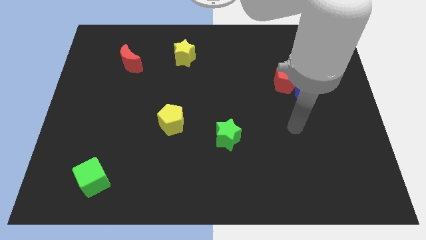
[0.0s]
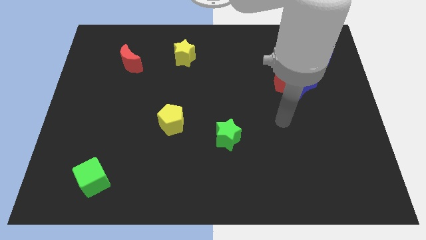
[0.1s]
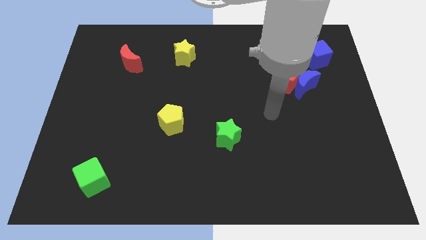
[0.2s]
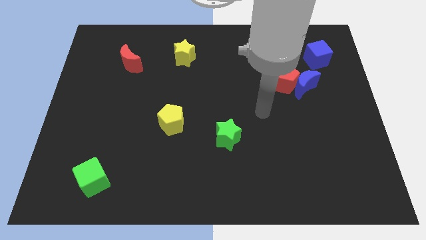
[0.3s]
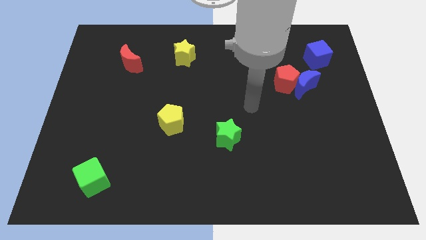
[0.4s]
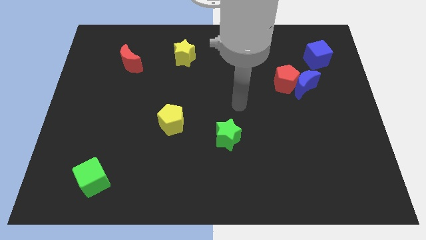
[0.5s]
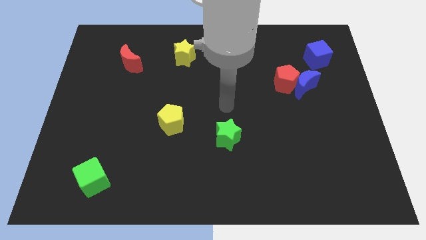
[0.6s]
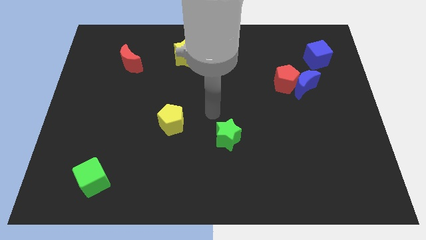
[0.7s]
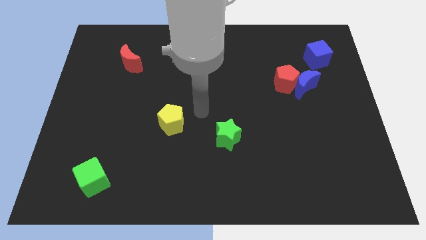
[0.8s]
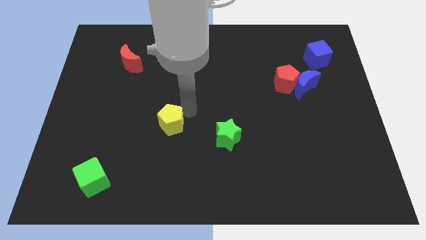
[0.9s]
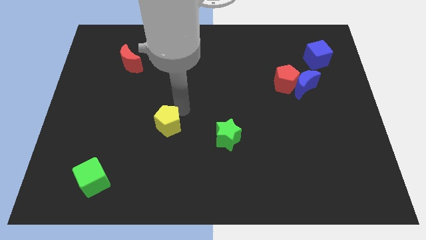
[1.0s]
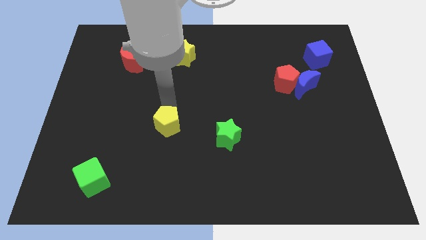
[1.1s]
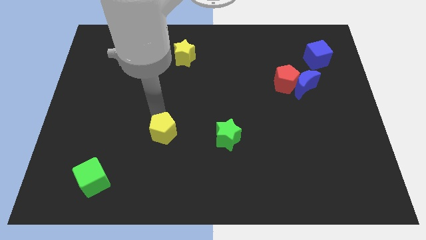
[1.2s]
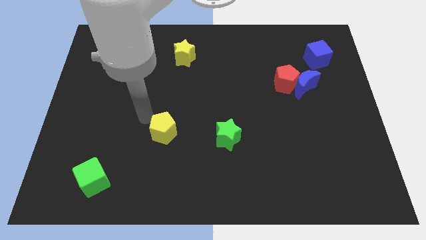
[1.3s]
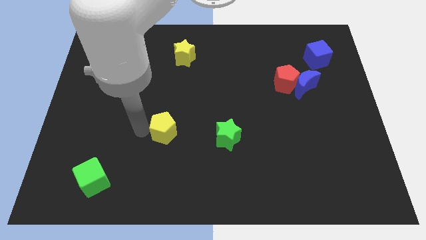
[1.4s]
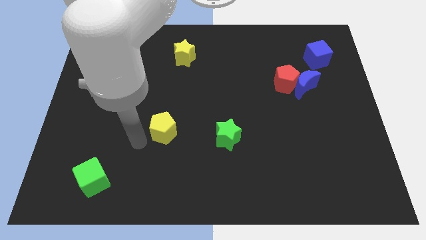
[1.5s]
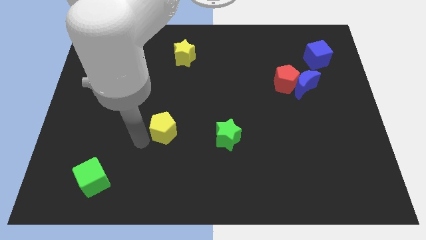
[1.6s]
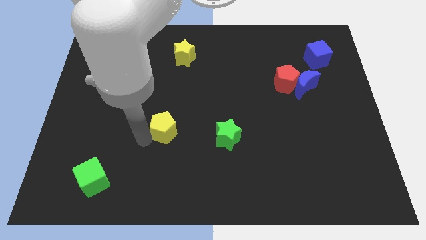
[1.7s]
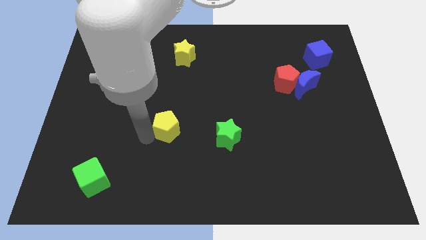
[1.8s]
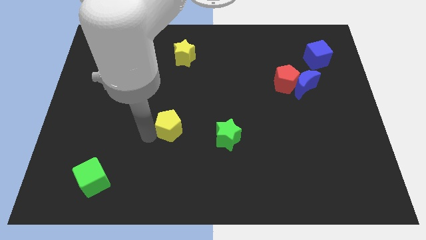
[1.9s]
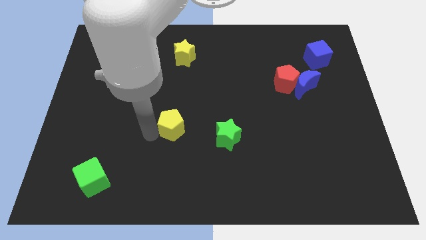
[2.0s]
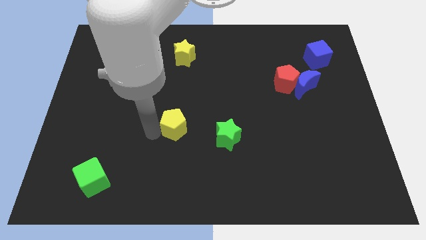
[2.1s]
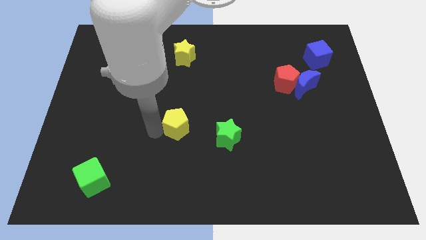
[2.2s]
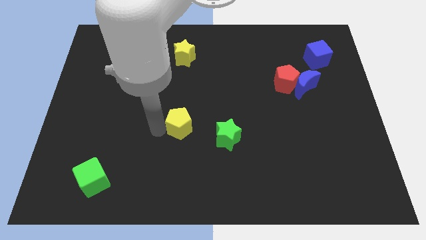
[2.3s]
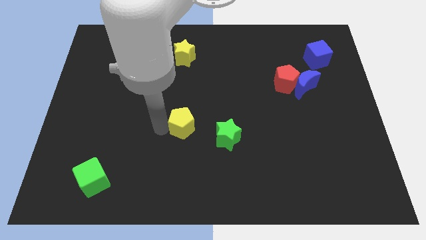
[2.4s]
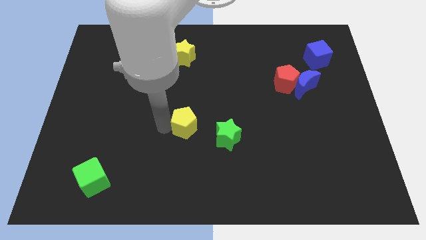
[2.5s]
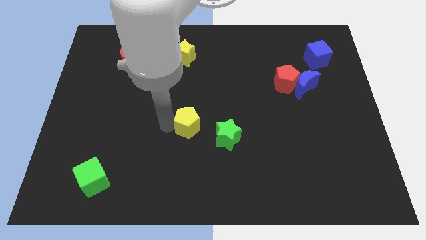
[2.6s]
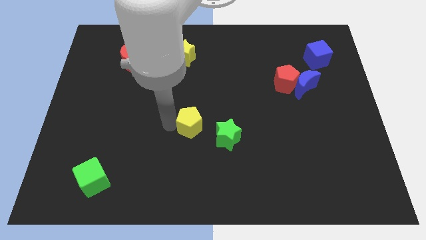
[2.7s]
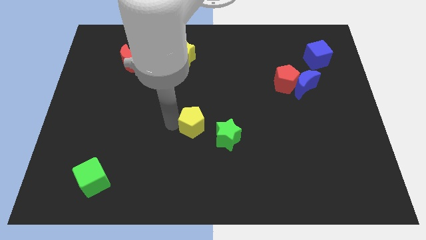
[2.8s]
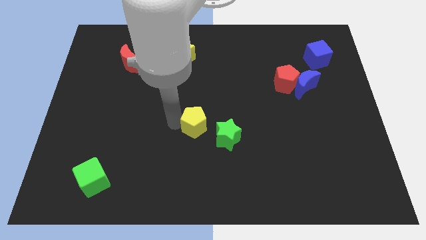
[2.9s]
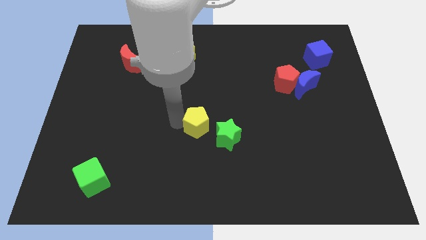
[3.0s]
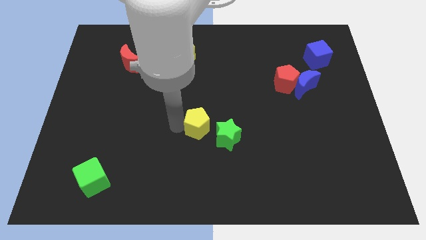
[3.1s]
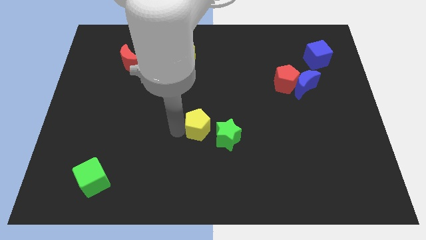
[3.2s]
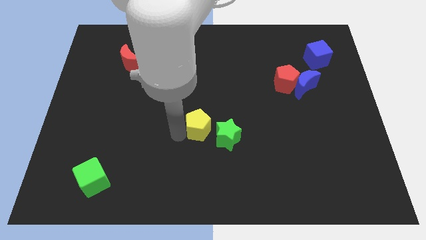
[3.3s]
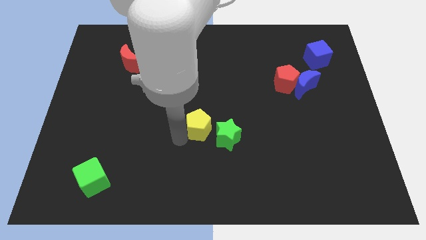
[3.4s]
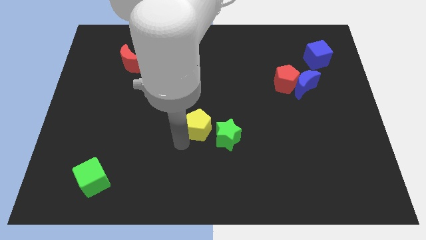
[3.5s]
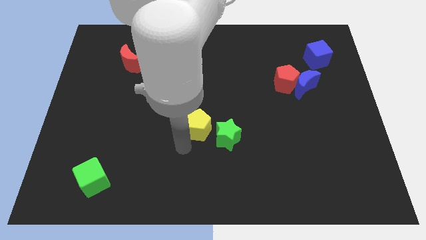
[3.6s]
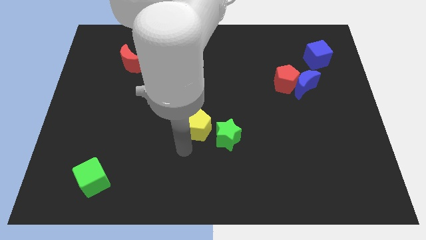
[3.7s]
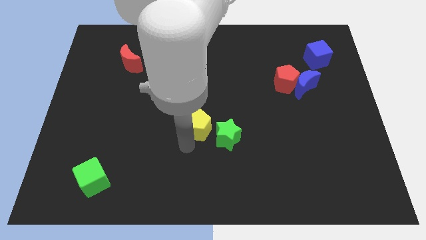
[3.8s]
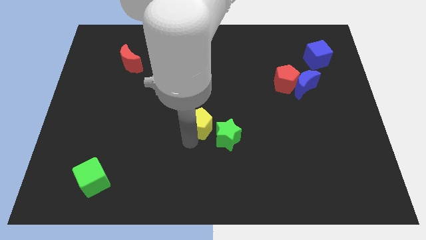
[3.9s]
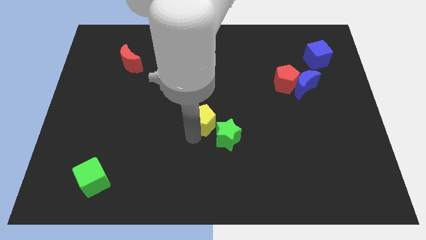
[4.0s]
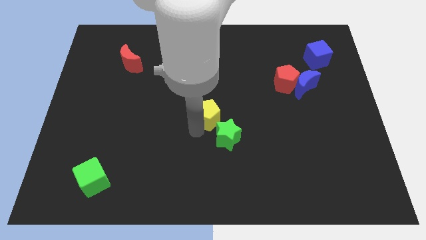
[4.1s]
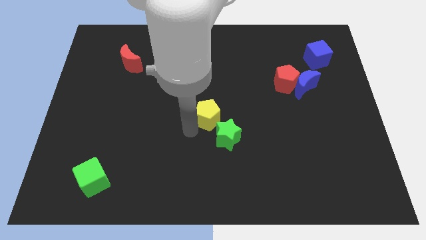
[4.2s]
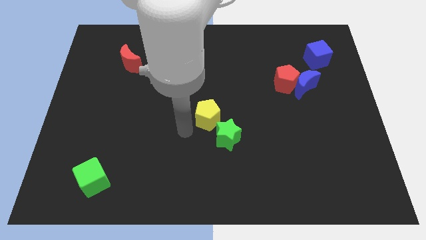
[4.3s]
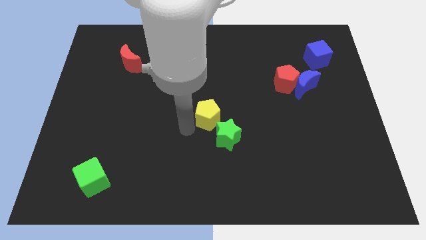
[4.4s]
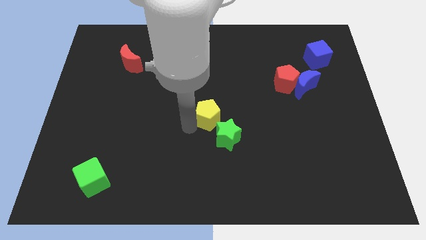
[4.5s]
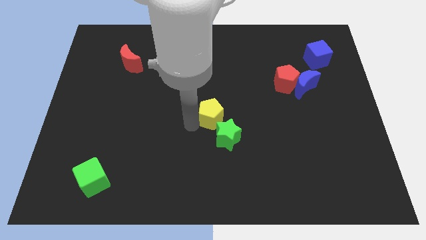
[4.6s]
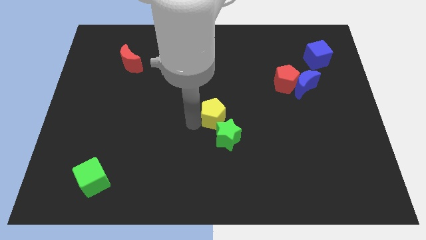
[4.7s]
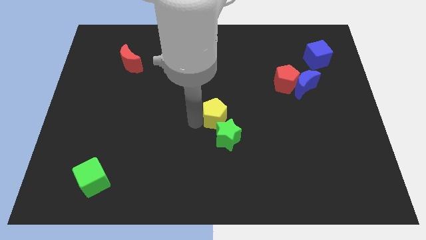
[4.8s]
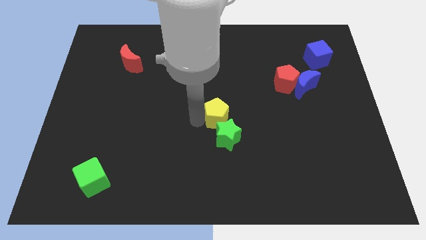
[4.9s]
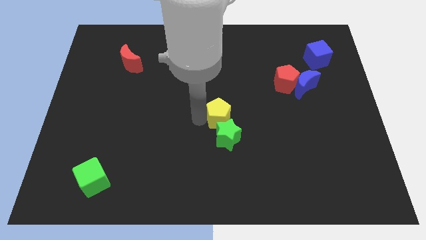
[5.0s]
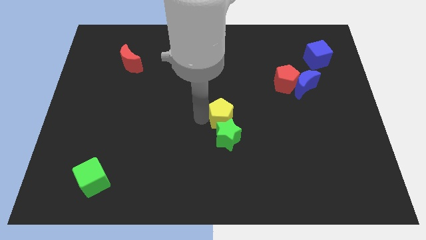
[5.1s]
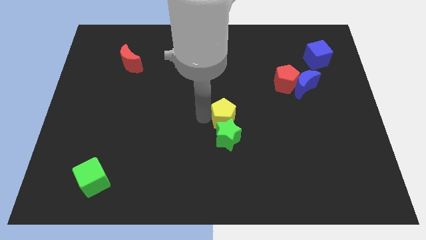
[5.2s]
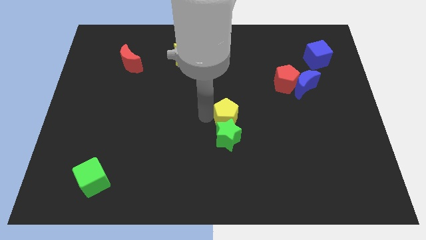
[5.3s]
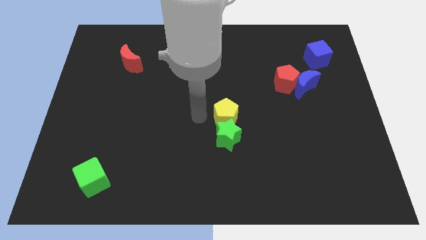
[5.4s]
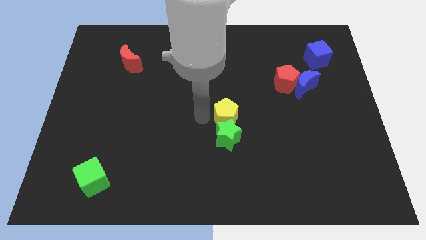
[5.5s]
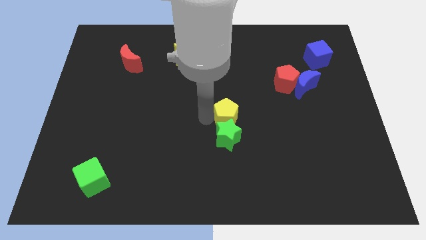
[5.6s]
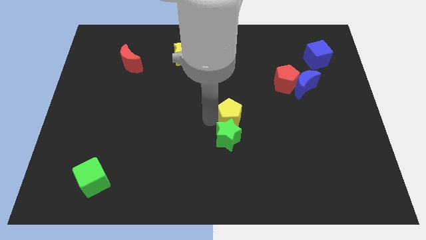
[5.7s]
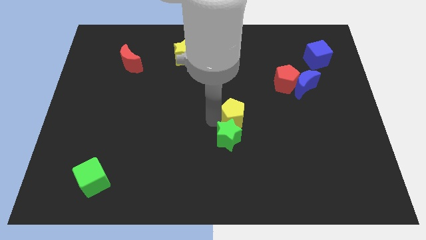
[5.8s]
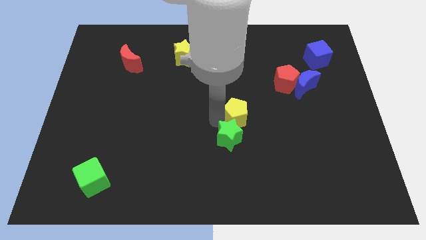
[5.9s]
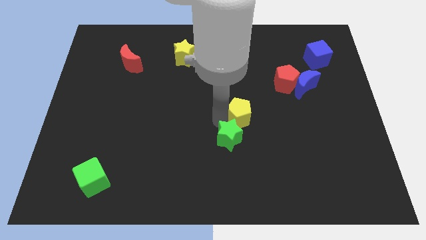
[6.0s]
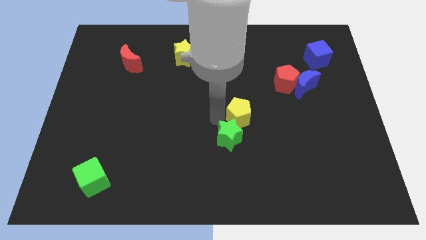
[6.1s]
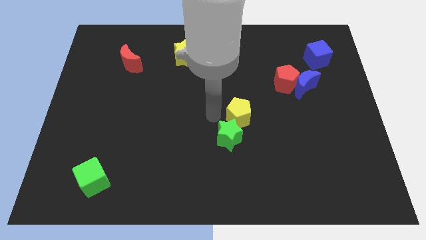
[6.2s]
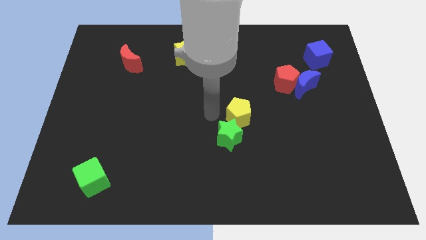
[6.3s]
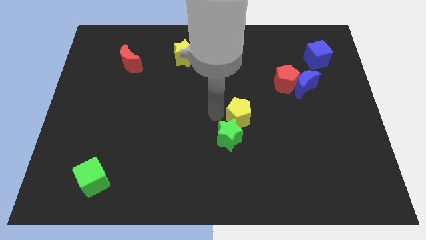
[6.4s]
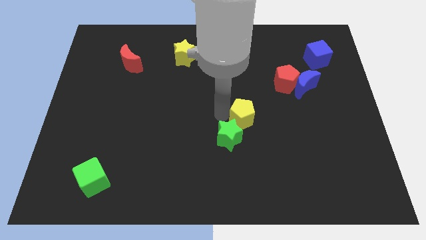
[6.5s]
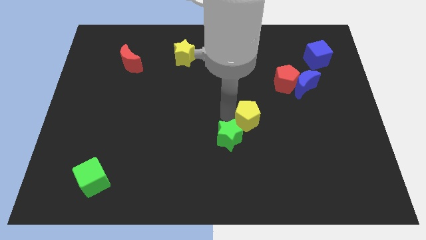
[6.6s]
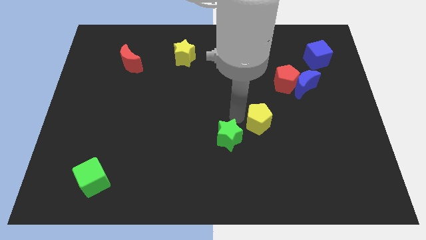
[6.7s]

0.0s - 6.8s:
move the yellow pentagon right

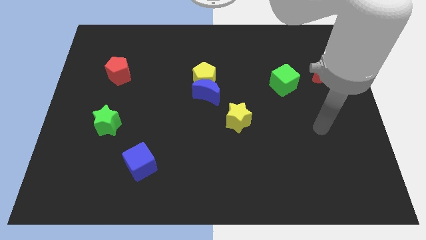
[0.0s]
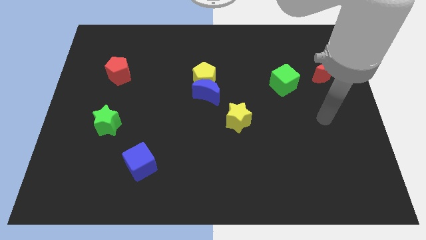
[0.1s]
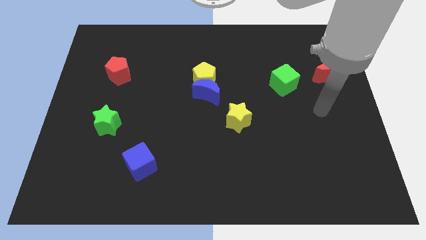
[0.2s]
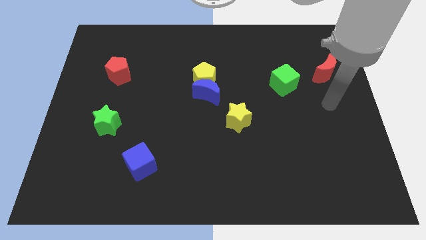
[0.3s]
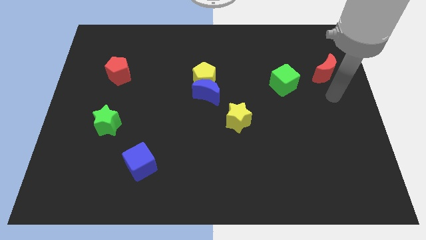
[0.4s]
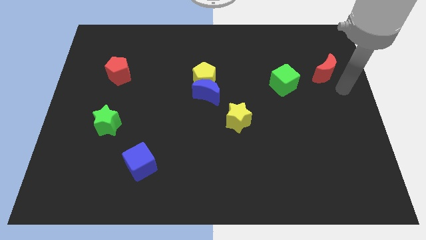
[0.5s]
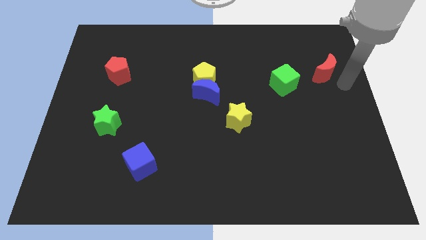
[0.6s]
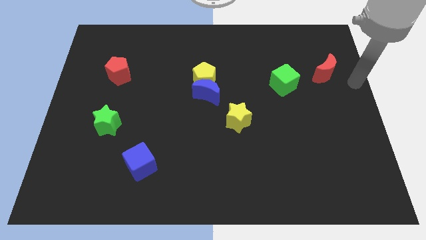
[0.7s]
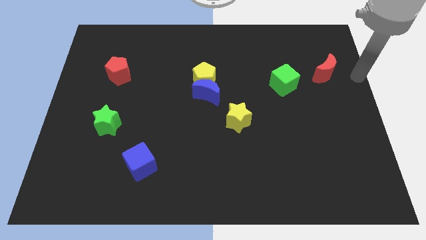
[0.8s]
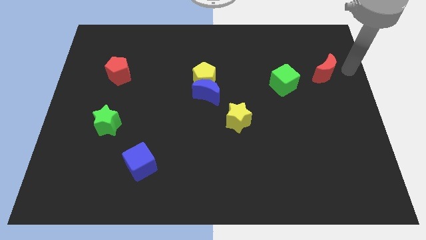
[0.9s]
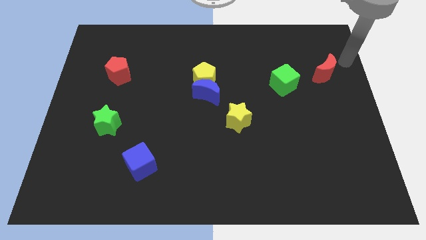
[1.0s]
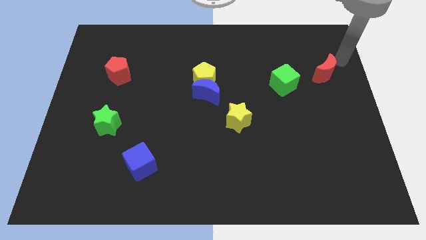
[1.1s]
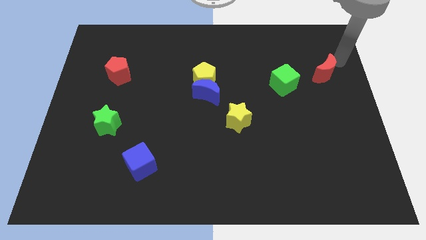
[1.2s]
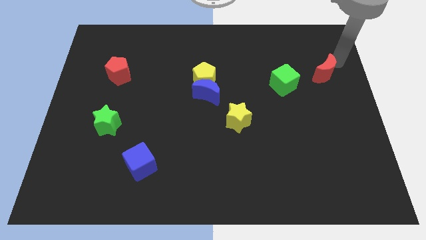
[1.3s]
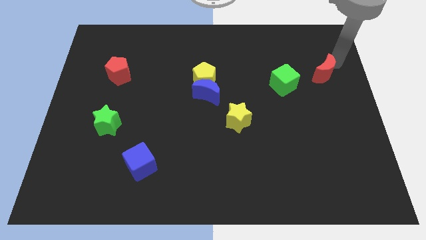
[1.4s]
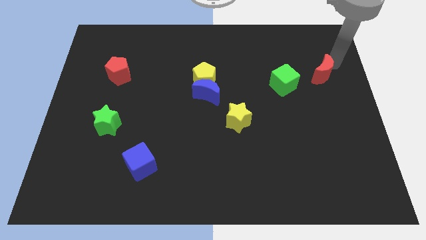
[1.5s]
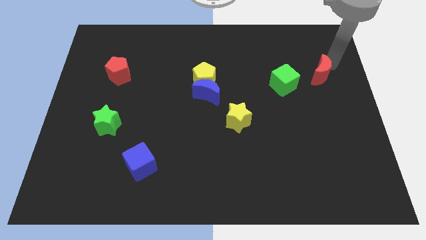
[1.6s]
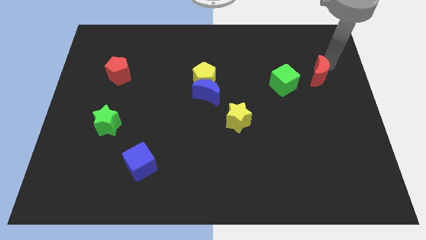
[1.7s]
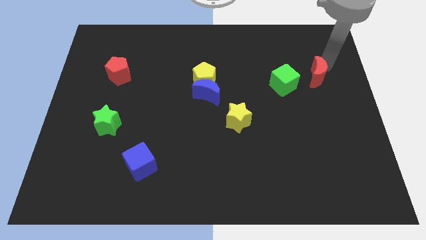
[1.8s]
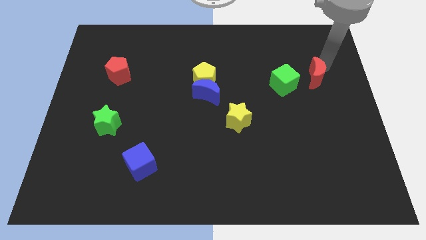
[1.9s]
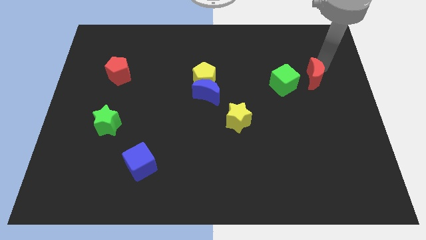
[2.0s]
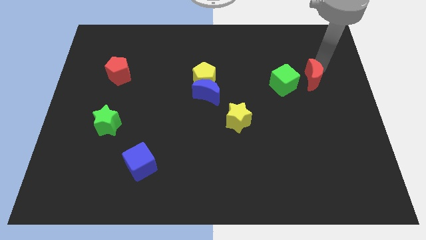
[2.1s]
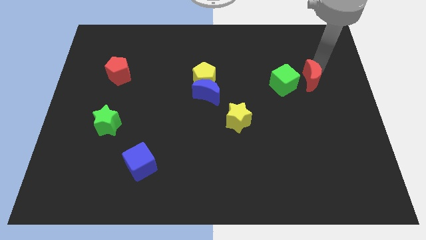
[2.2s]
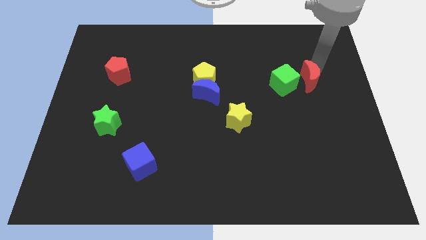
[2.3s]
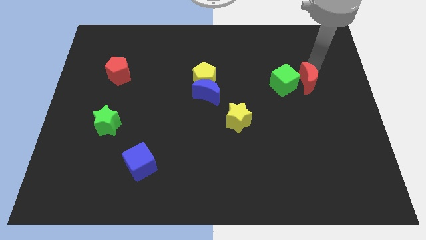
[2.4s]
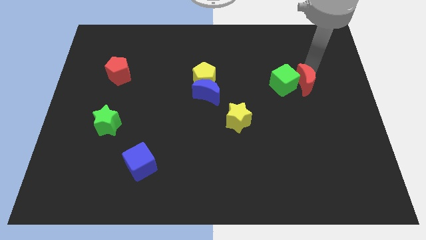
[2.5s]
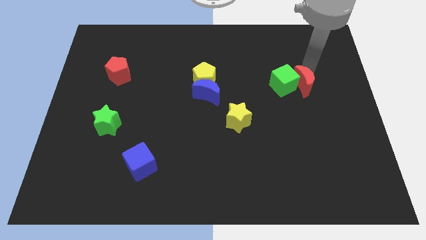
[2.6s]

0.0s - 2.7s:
slightly slide the red moon downwards and to the left
